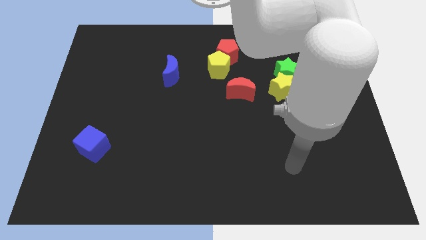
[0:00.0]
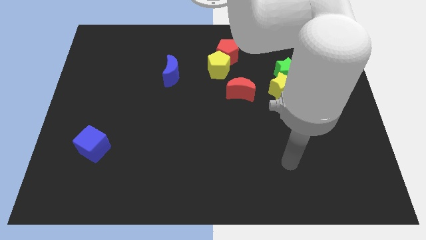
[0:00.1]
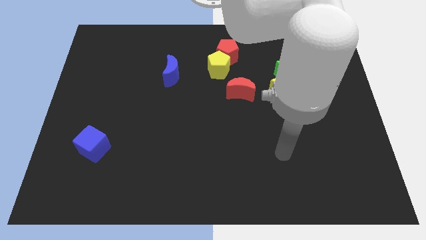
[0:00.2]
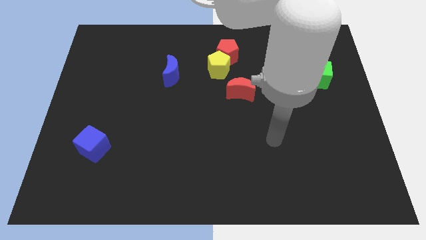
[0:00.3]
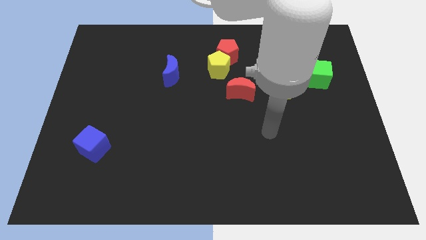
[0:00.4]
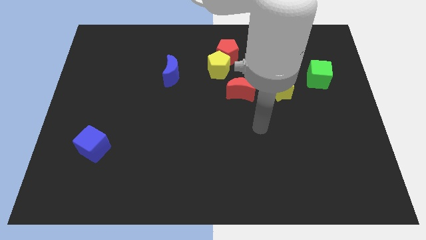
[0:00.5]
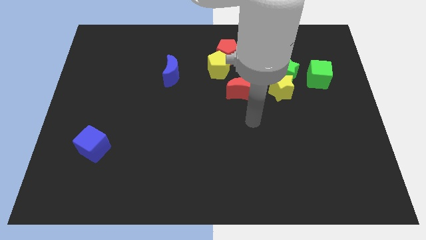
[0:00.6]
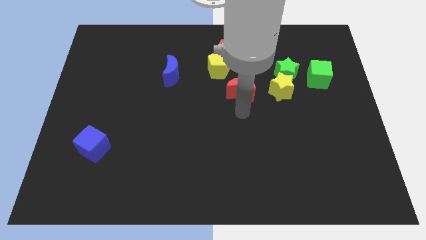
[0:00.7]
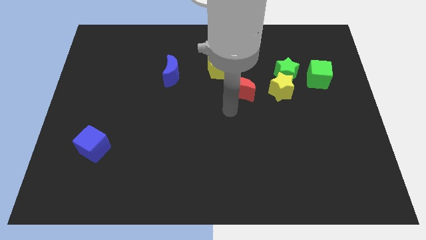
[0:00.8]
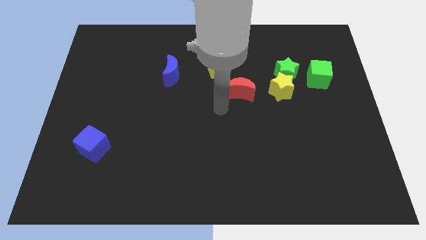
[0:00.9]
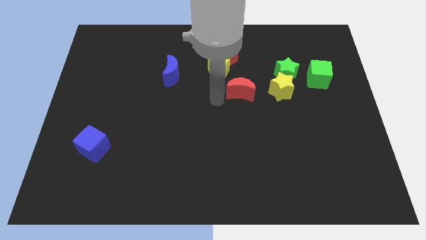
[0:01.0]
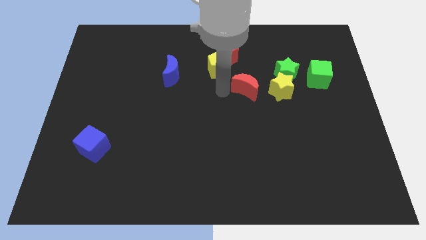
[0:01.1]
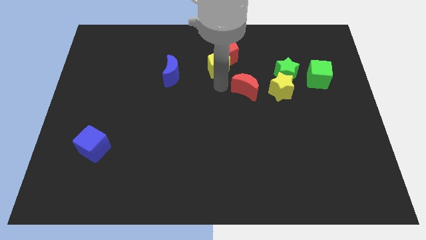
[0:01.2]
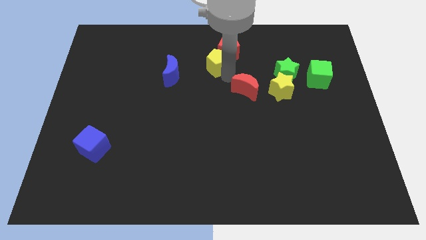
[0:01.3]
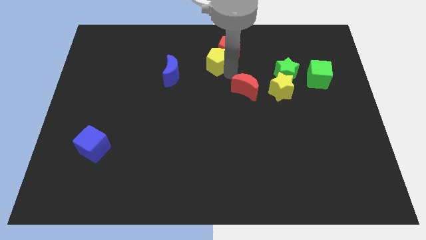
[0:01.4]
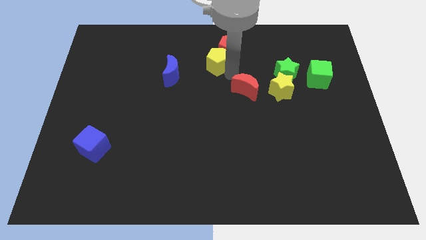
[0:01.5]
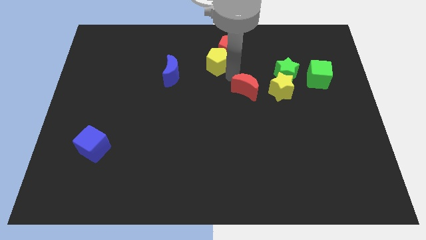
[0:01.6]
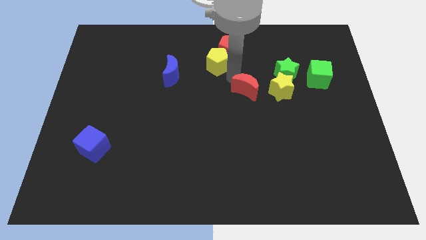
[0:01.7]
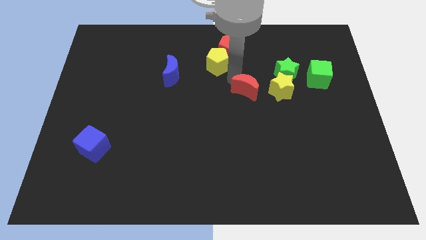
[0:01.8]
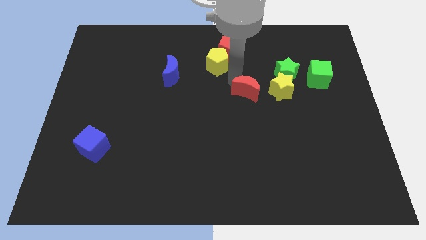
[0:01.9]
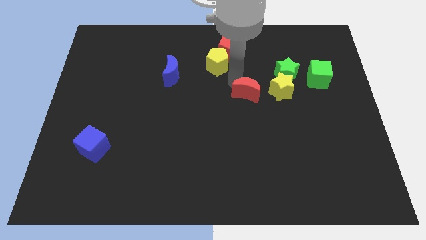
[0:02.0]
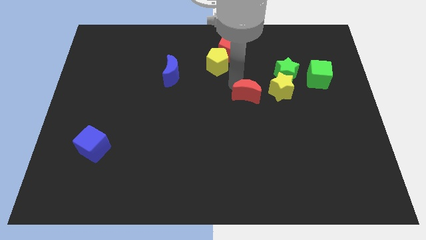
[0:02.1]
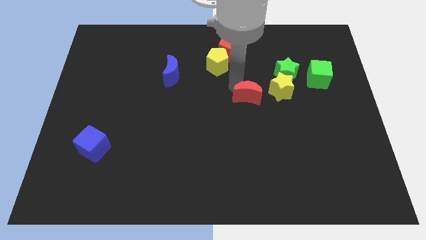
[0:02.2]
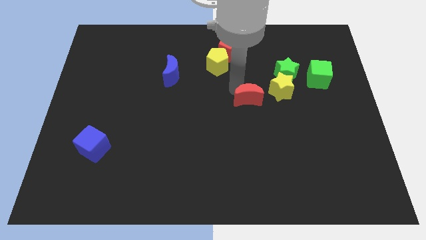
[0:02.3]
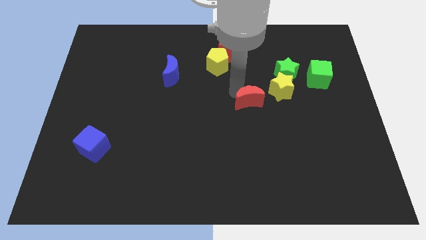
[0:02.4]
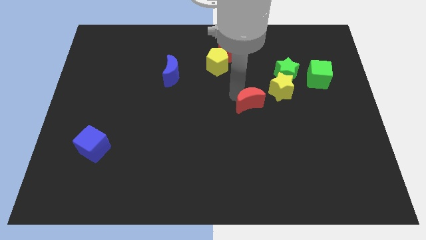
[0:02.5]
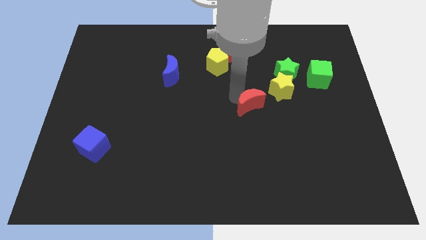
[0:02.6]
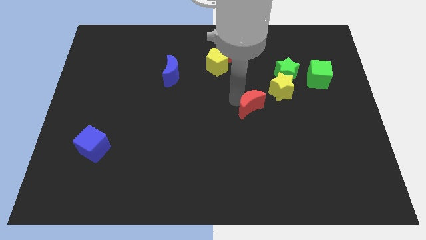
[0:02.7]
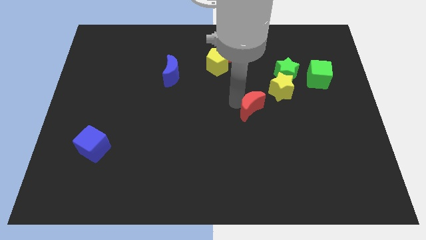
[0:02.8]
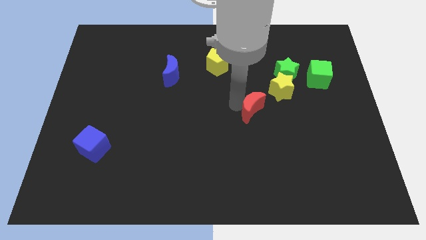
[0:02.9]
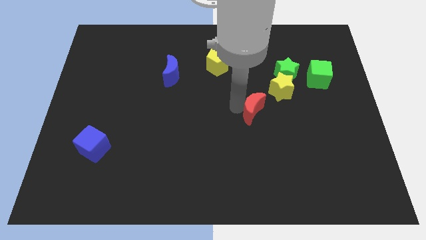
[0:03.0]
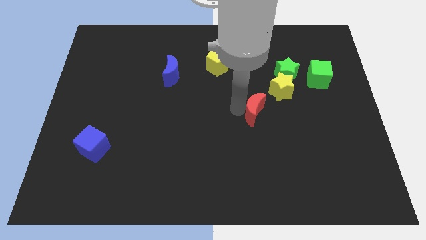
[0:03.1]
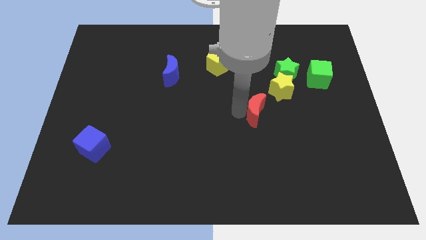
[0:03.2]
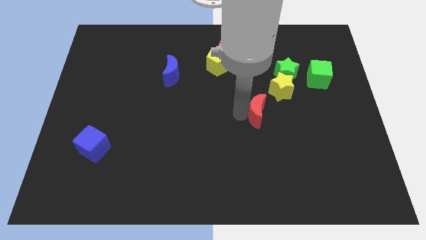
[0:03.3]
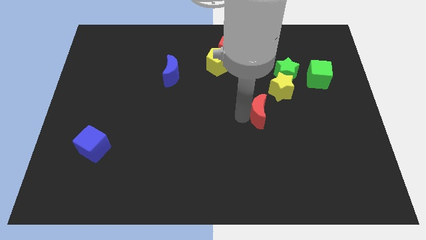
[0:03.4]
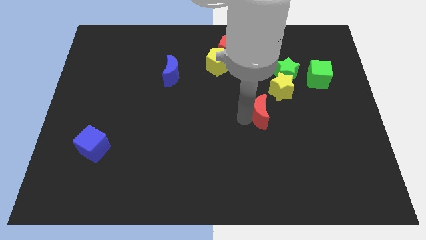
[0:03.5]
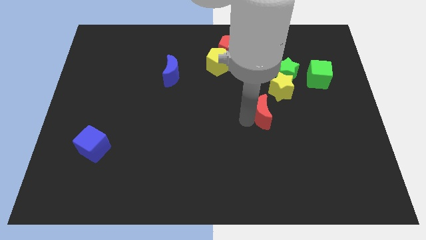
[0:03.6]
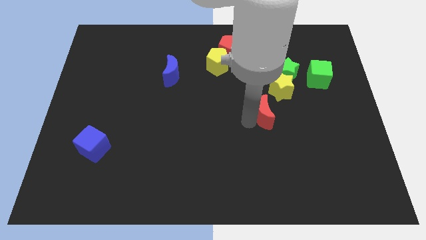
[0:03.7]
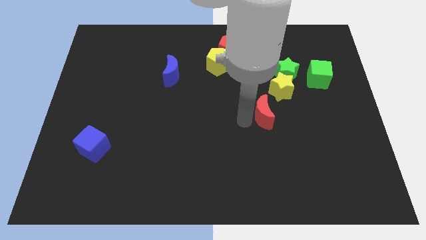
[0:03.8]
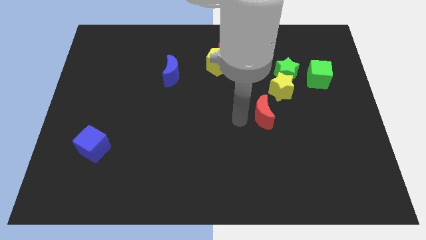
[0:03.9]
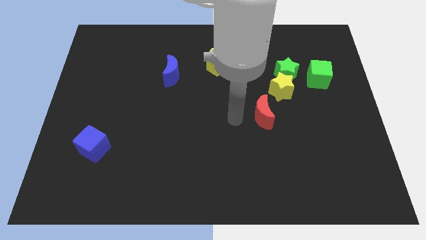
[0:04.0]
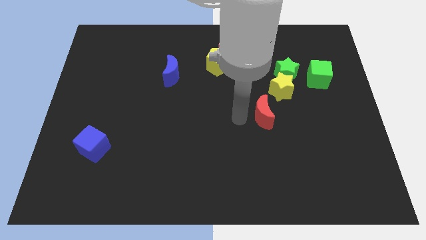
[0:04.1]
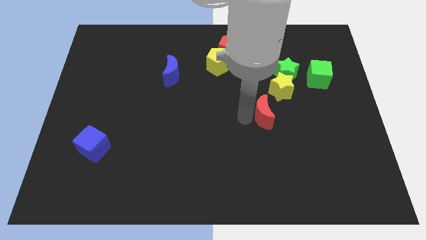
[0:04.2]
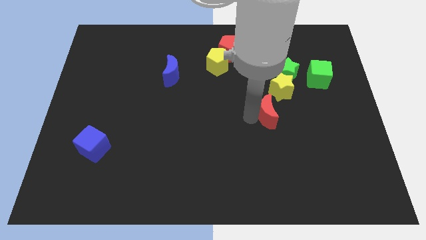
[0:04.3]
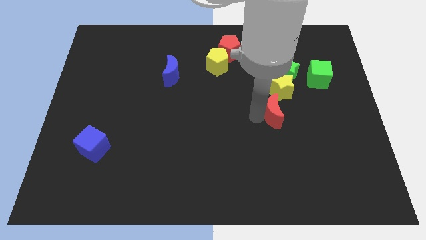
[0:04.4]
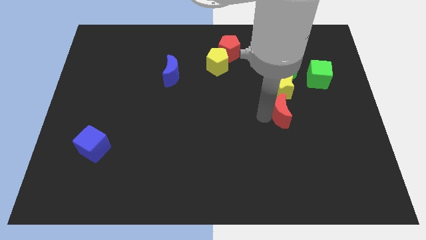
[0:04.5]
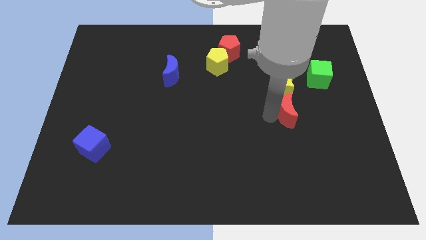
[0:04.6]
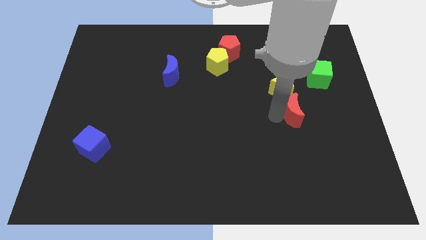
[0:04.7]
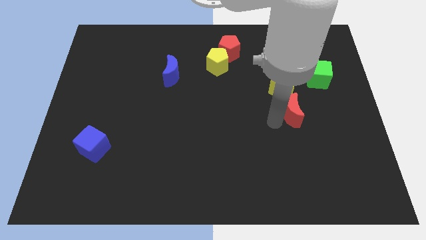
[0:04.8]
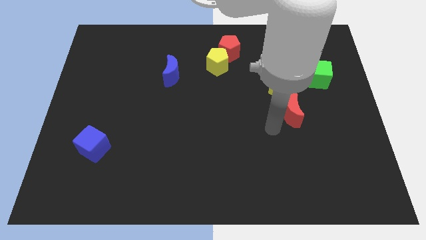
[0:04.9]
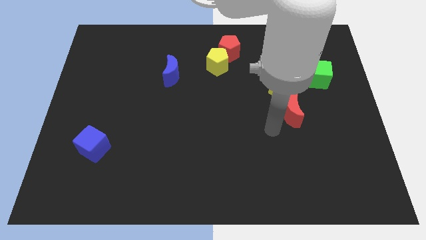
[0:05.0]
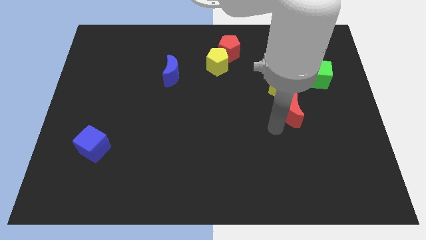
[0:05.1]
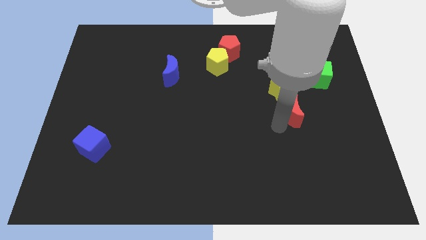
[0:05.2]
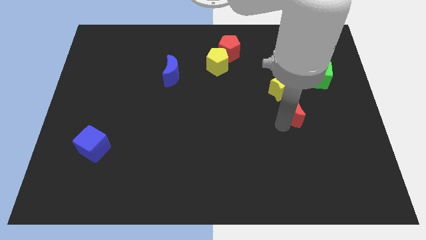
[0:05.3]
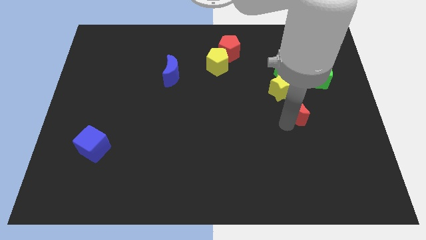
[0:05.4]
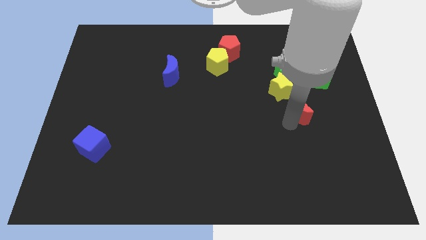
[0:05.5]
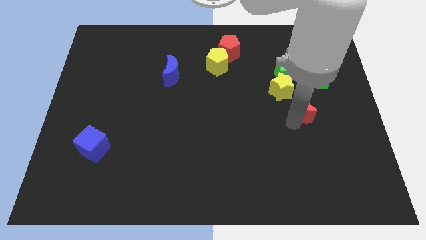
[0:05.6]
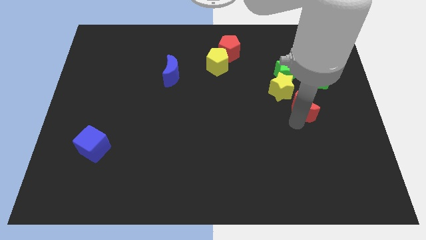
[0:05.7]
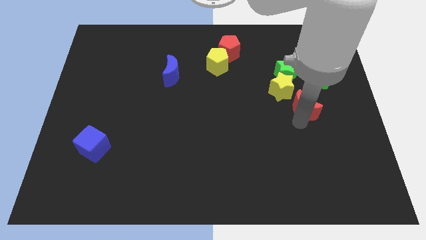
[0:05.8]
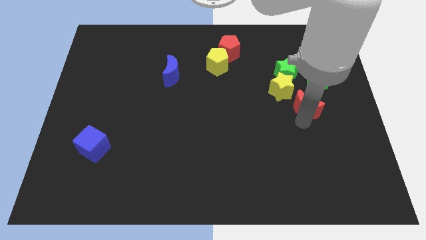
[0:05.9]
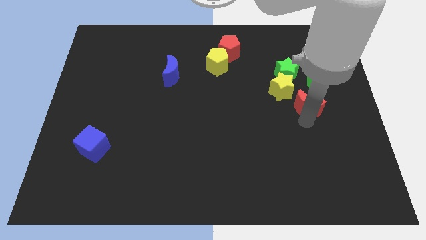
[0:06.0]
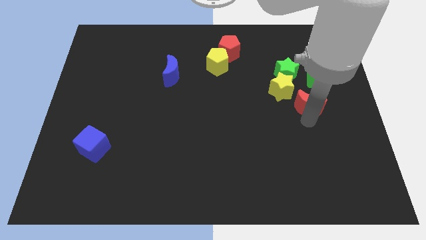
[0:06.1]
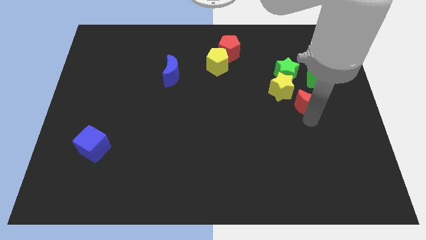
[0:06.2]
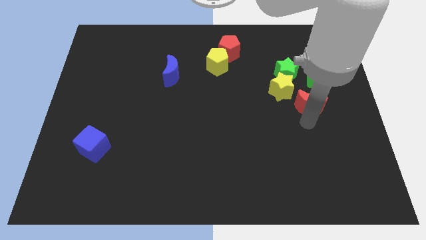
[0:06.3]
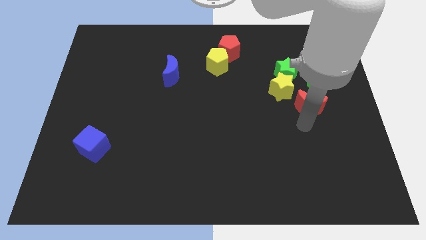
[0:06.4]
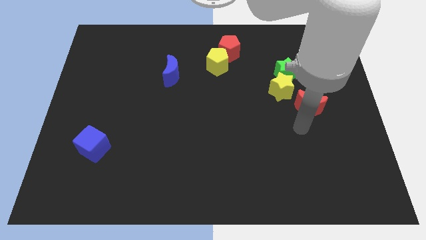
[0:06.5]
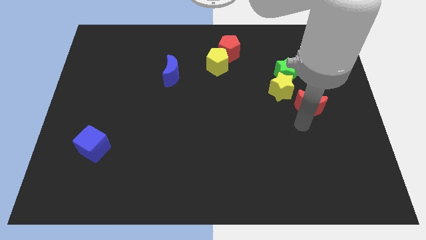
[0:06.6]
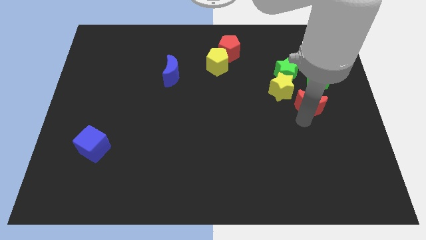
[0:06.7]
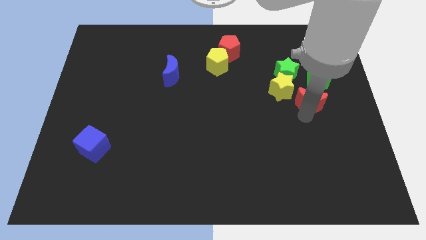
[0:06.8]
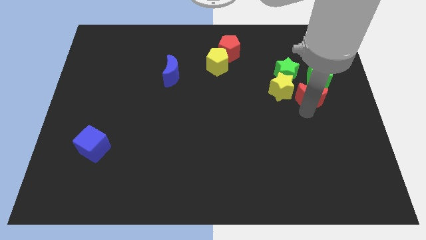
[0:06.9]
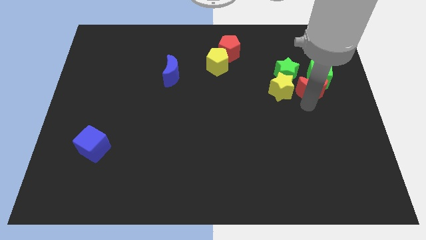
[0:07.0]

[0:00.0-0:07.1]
put the red moon close to the green cube

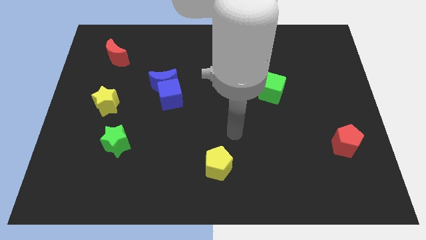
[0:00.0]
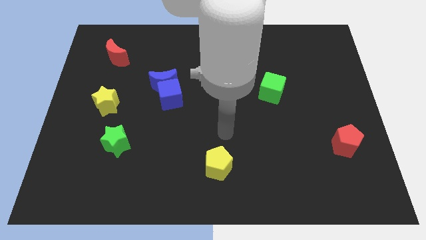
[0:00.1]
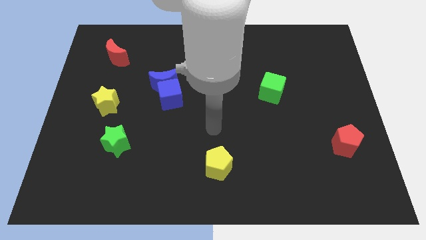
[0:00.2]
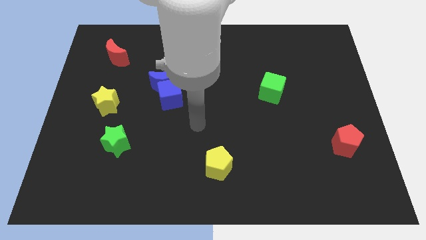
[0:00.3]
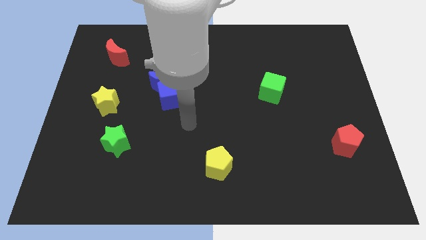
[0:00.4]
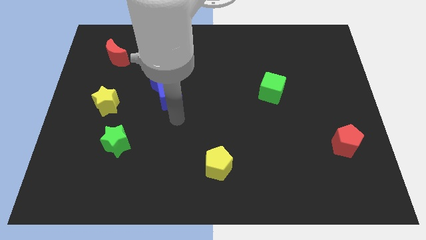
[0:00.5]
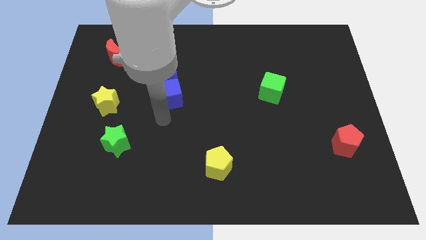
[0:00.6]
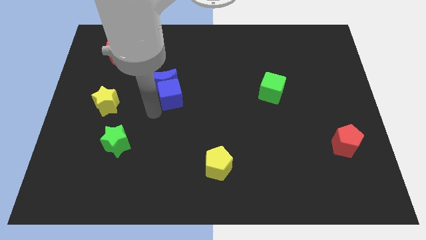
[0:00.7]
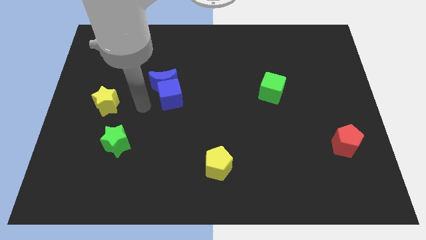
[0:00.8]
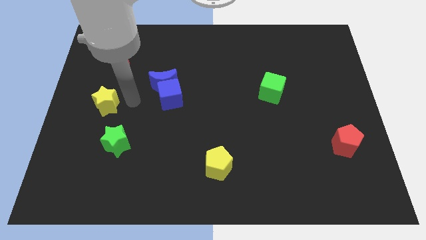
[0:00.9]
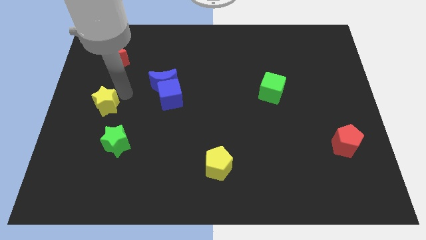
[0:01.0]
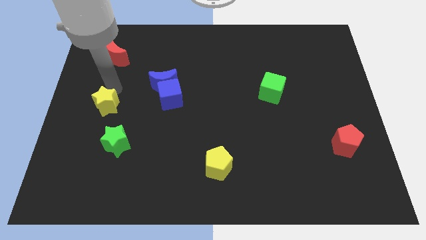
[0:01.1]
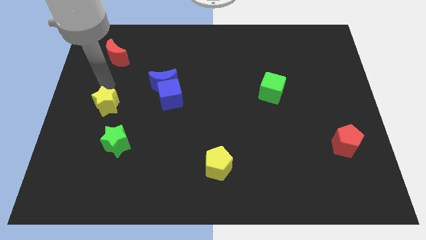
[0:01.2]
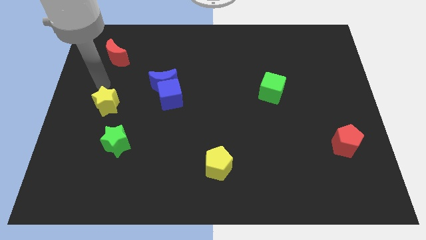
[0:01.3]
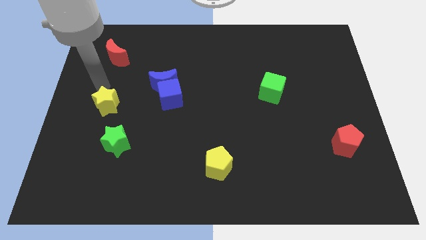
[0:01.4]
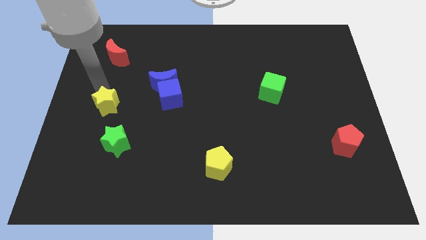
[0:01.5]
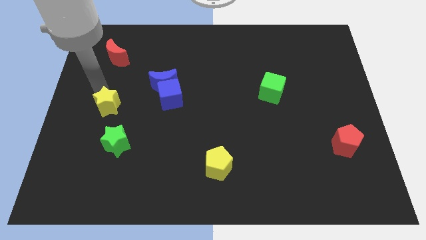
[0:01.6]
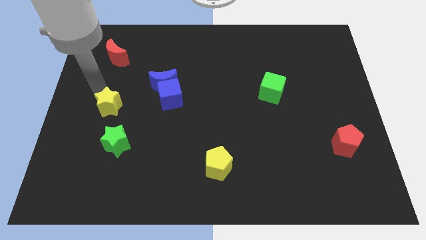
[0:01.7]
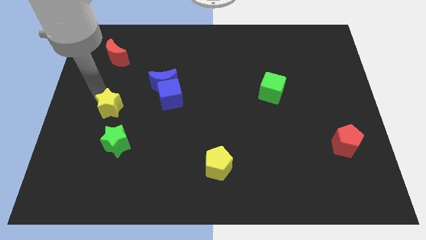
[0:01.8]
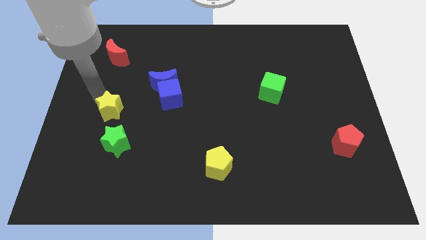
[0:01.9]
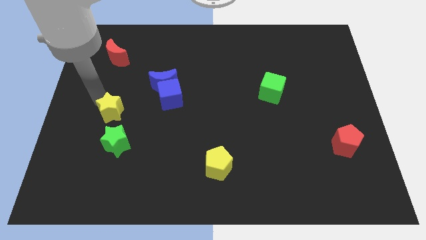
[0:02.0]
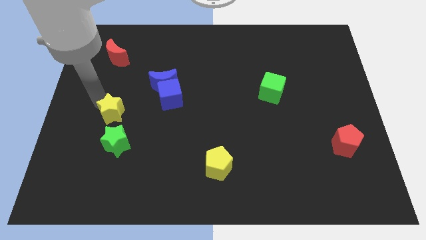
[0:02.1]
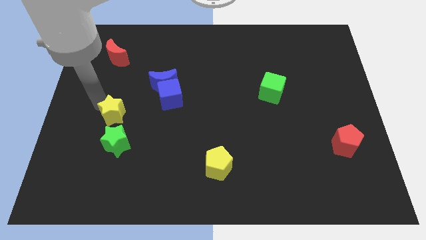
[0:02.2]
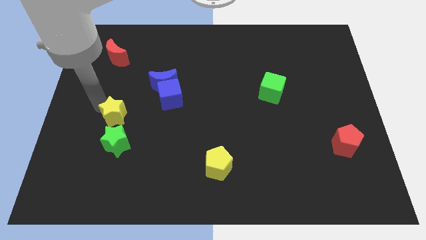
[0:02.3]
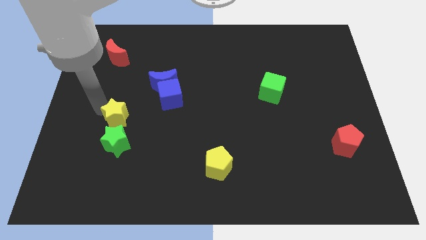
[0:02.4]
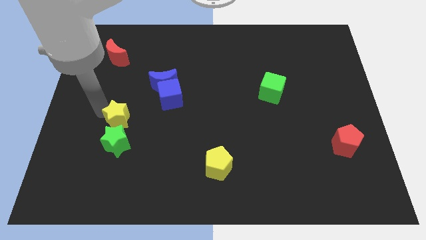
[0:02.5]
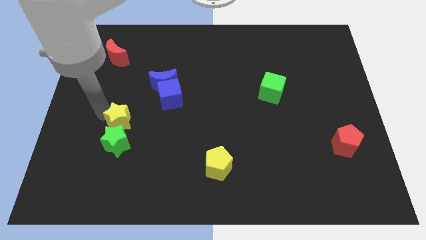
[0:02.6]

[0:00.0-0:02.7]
slide the yellow star close to the green star
